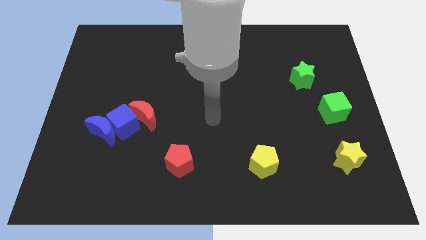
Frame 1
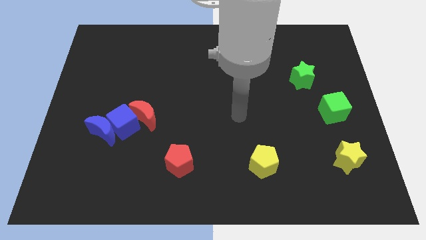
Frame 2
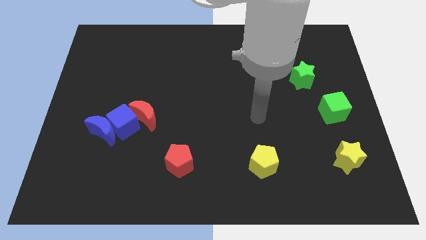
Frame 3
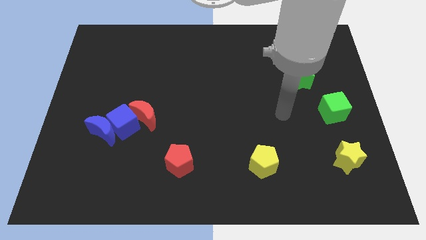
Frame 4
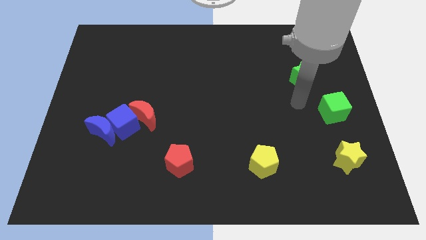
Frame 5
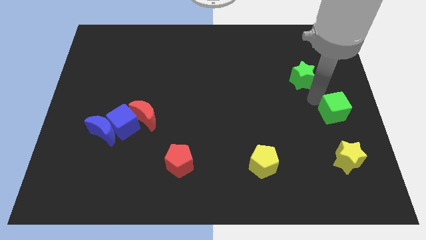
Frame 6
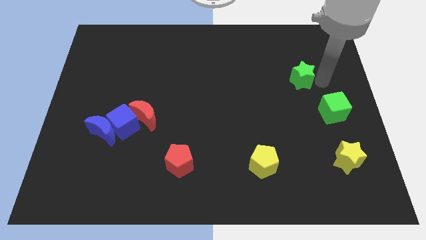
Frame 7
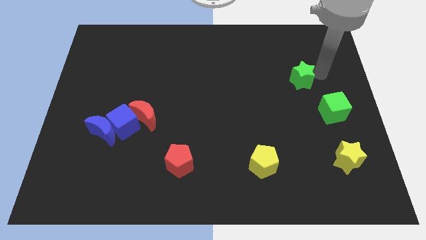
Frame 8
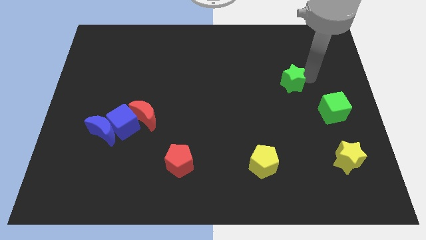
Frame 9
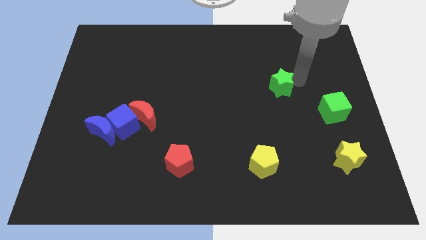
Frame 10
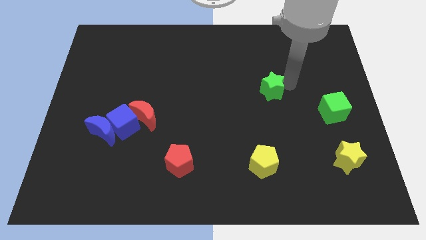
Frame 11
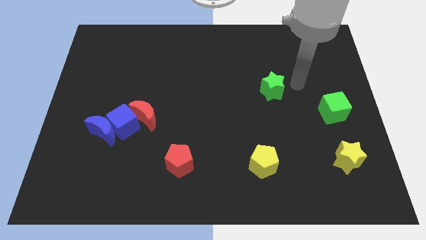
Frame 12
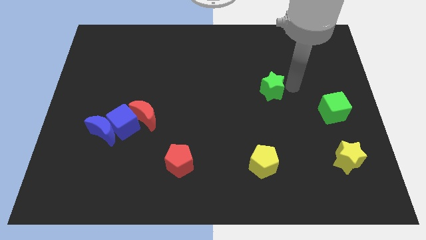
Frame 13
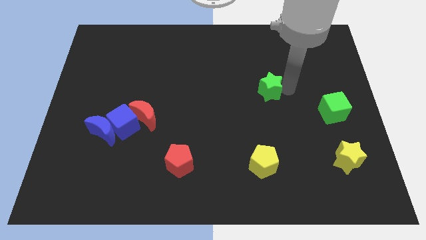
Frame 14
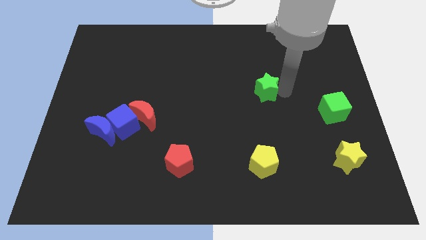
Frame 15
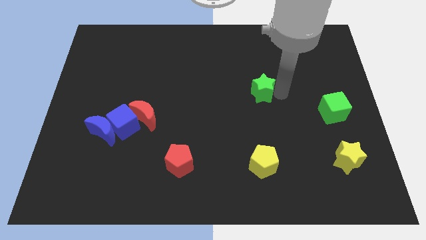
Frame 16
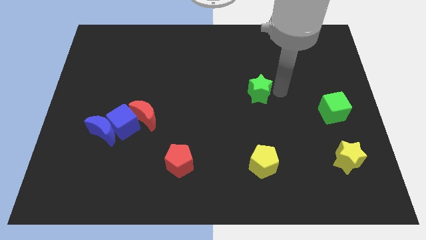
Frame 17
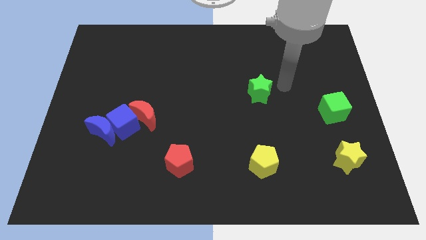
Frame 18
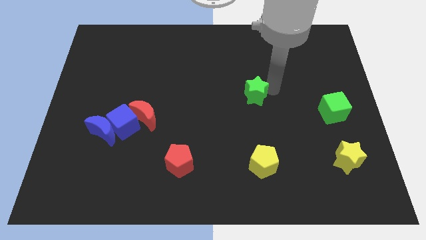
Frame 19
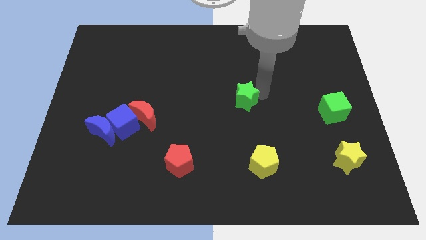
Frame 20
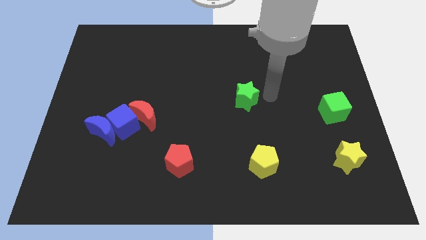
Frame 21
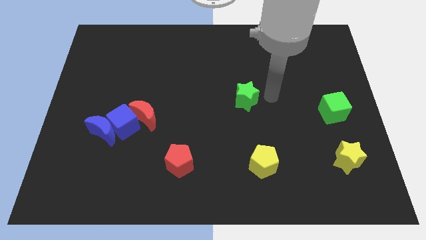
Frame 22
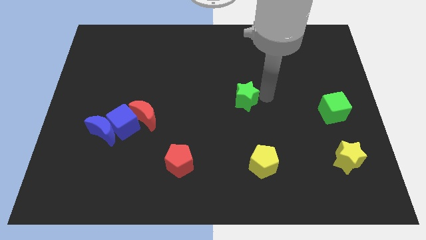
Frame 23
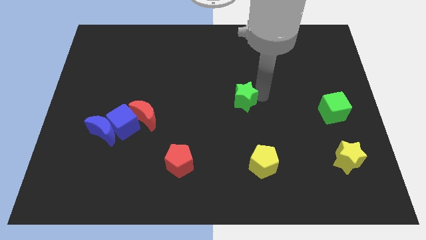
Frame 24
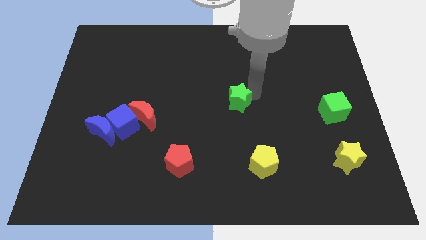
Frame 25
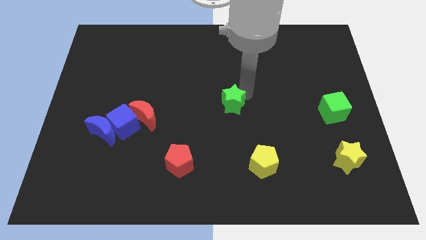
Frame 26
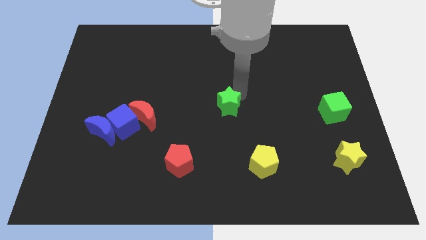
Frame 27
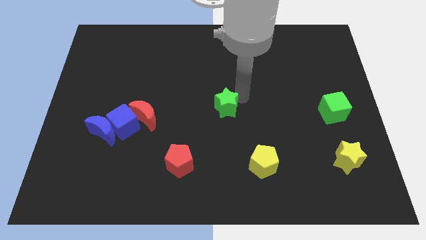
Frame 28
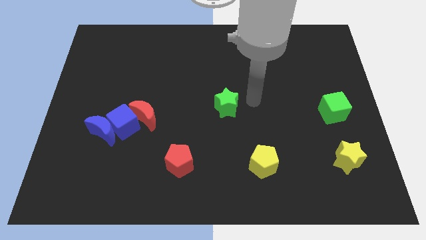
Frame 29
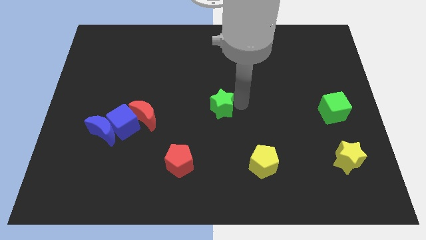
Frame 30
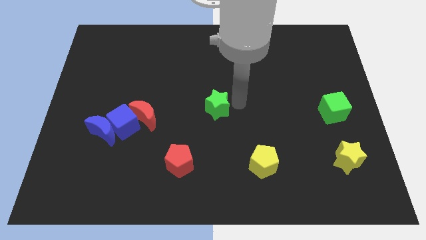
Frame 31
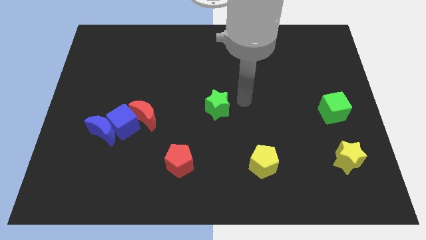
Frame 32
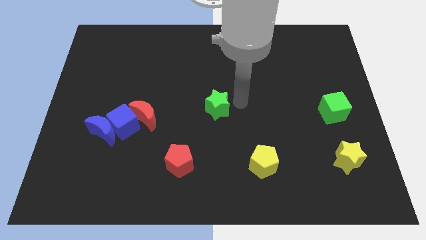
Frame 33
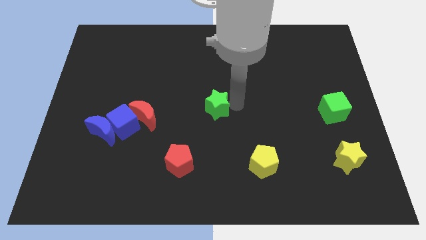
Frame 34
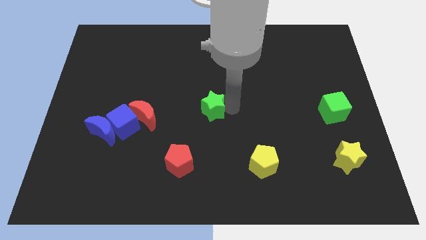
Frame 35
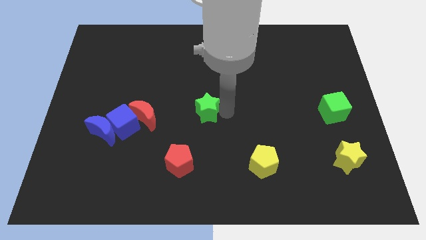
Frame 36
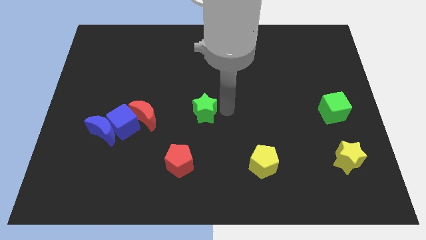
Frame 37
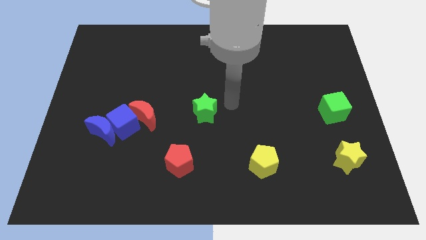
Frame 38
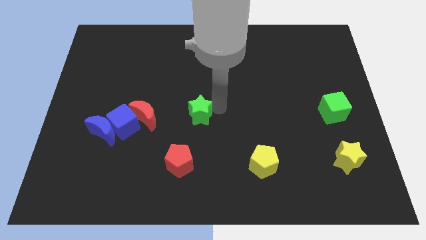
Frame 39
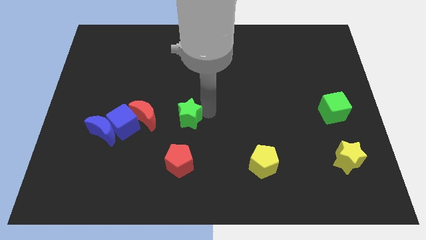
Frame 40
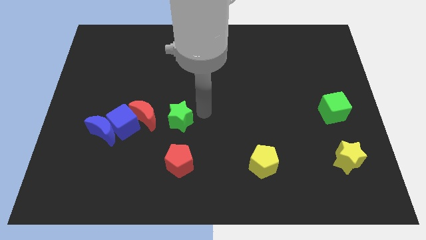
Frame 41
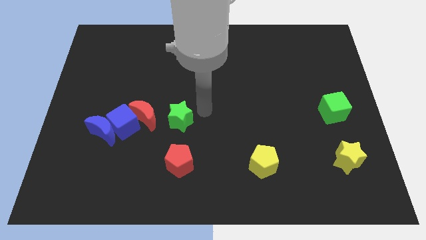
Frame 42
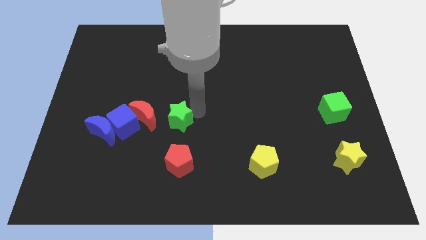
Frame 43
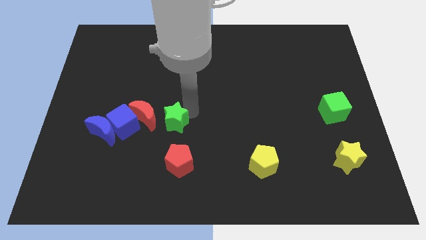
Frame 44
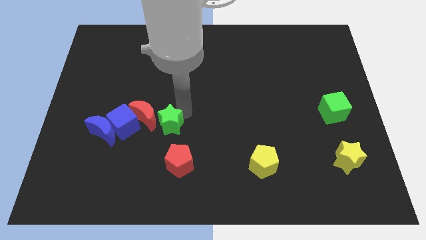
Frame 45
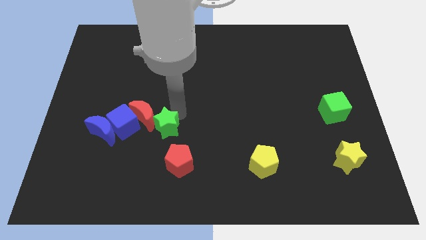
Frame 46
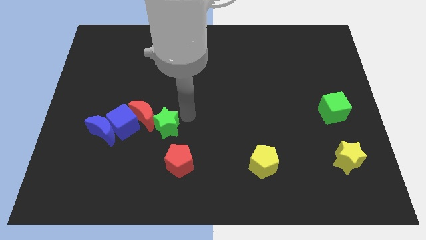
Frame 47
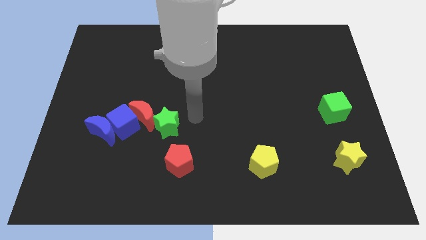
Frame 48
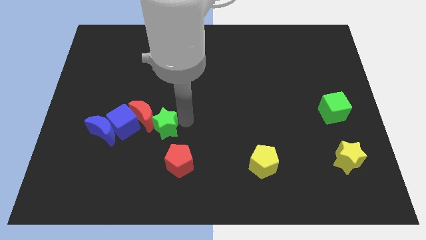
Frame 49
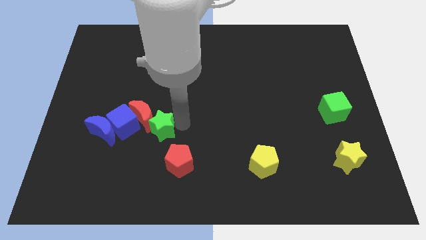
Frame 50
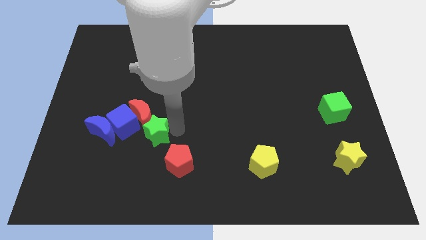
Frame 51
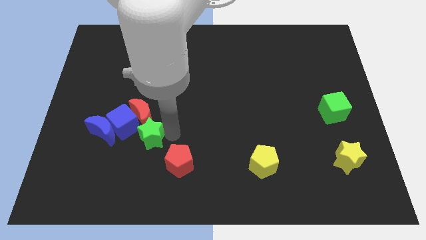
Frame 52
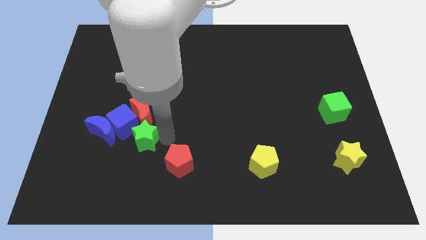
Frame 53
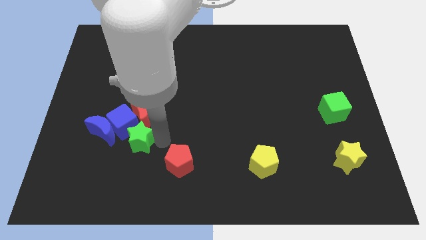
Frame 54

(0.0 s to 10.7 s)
put the green star towards the blue cube
